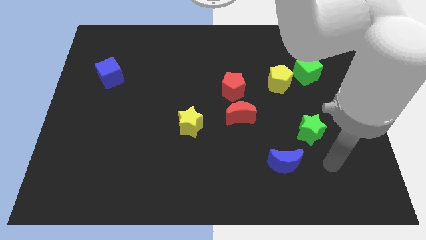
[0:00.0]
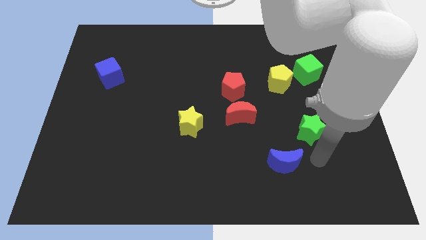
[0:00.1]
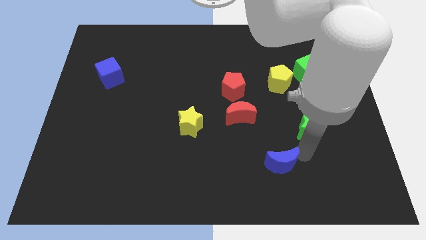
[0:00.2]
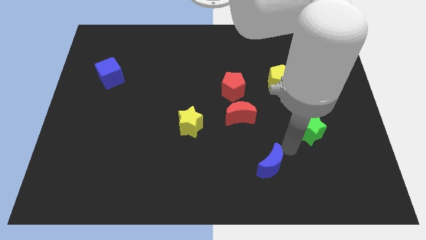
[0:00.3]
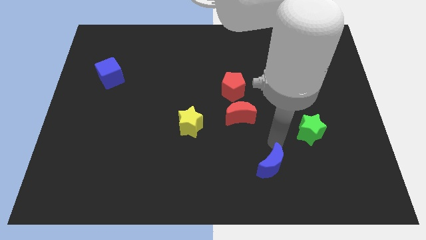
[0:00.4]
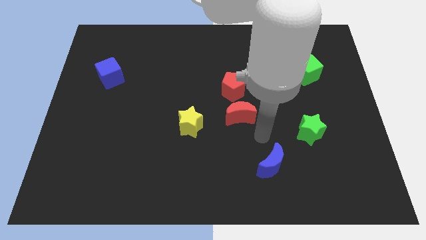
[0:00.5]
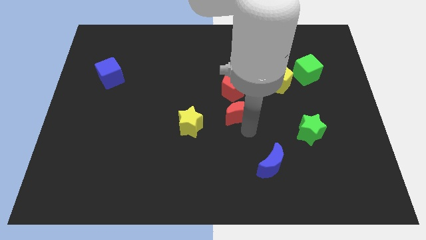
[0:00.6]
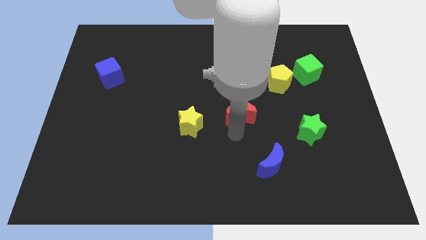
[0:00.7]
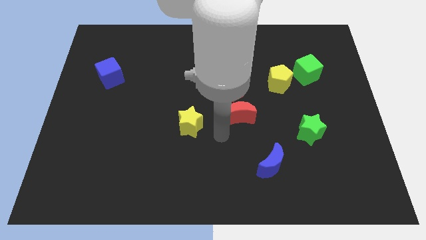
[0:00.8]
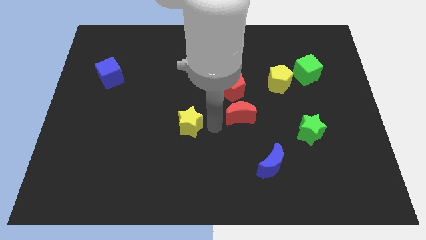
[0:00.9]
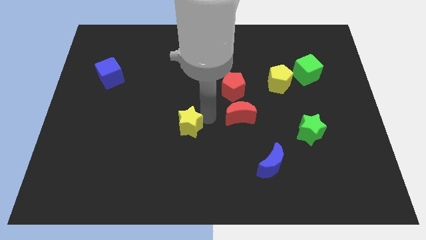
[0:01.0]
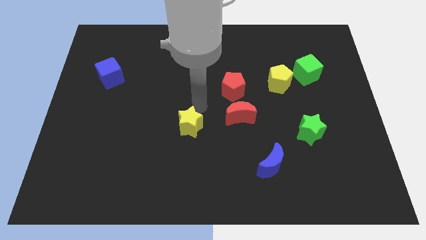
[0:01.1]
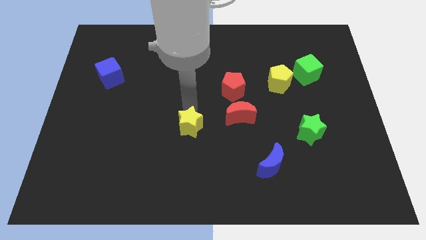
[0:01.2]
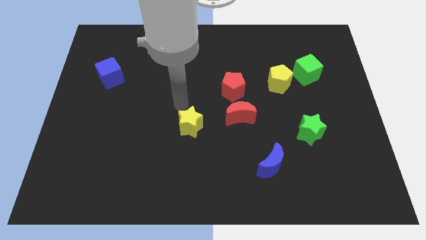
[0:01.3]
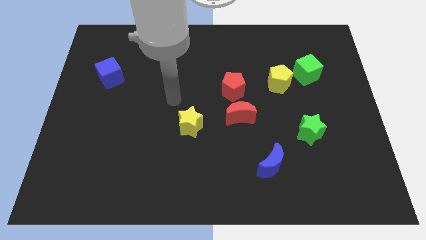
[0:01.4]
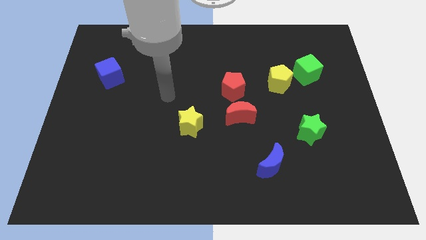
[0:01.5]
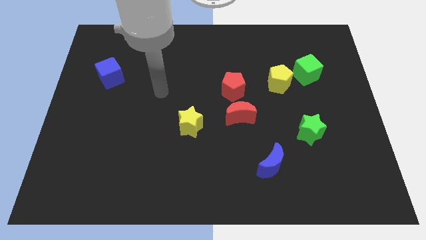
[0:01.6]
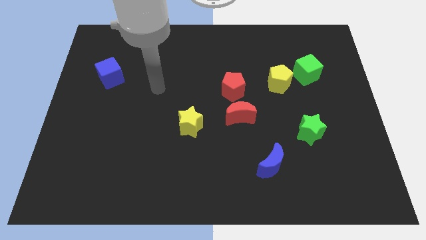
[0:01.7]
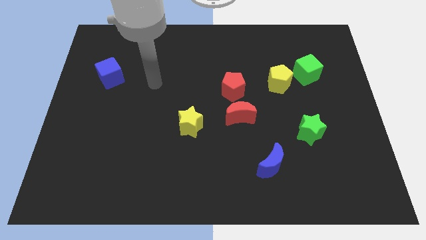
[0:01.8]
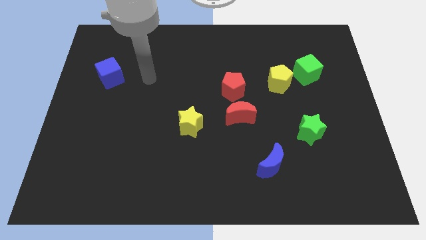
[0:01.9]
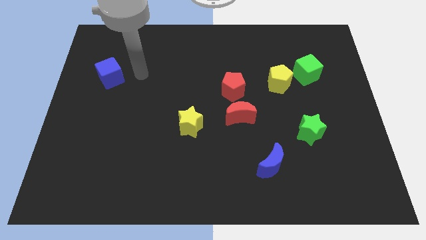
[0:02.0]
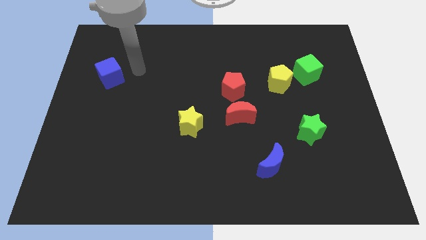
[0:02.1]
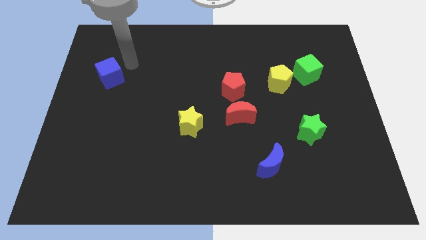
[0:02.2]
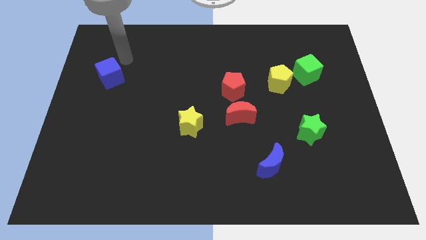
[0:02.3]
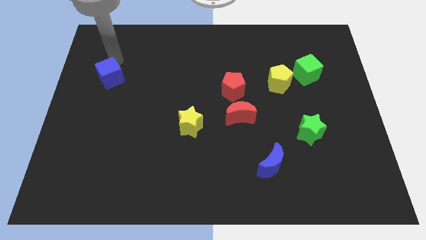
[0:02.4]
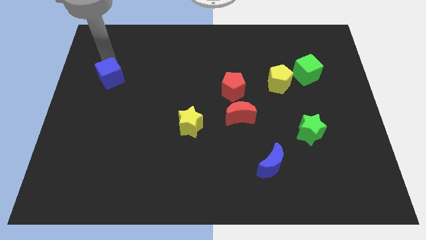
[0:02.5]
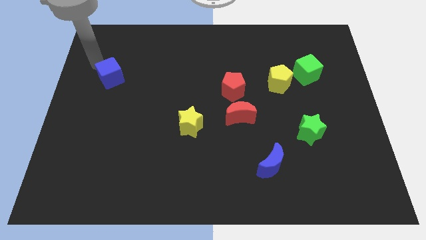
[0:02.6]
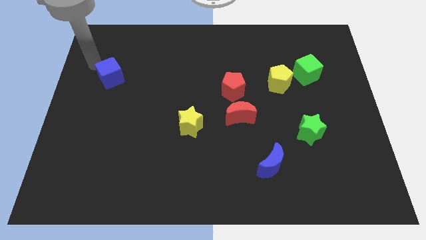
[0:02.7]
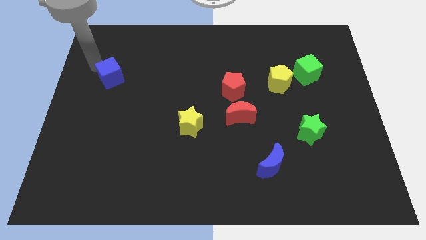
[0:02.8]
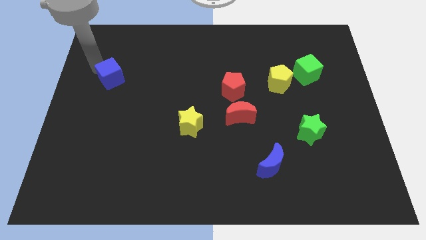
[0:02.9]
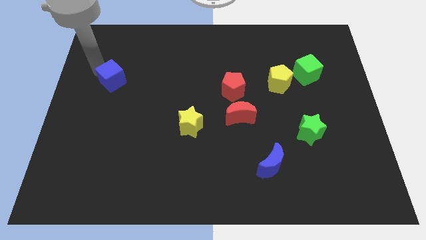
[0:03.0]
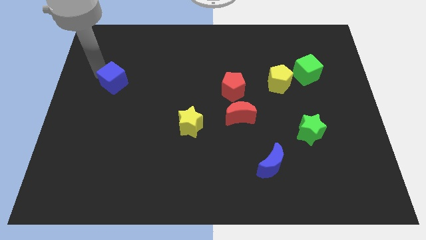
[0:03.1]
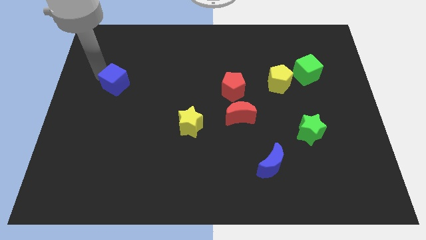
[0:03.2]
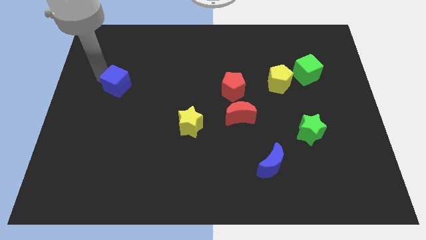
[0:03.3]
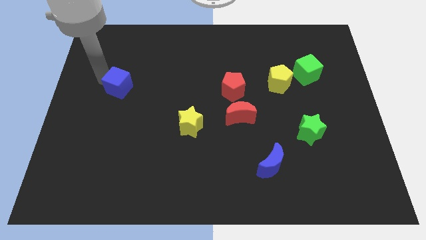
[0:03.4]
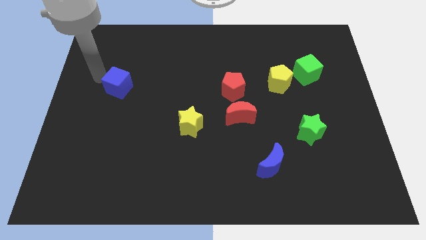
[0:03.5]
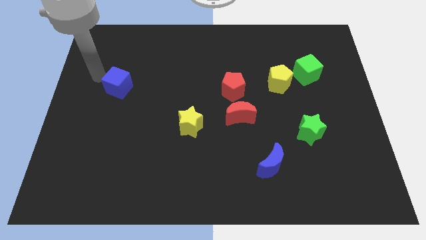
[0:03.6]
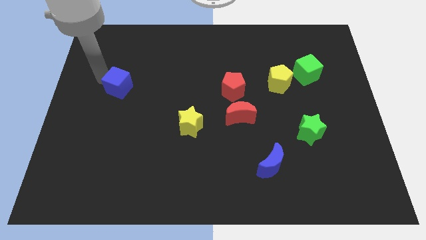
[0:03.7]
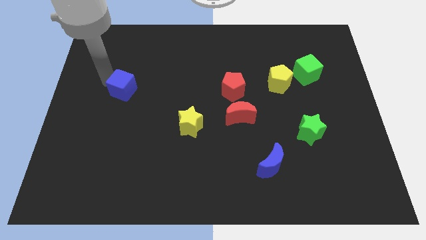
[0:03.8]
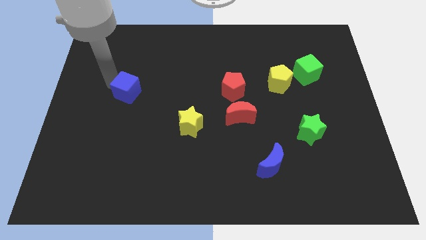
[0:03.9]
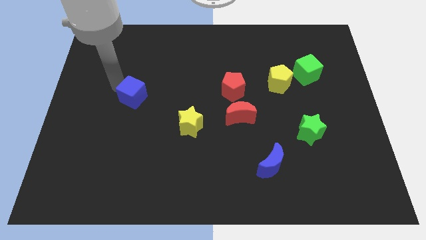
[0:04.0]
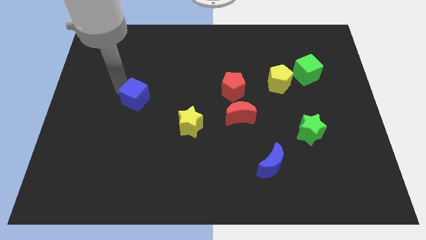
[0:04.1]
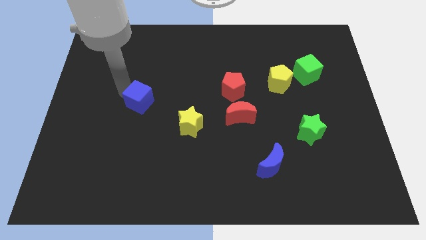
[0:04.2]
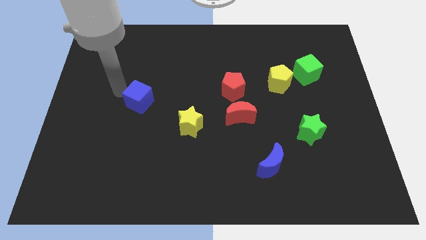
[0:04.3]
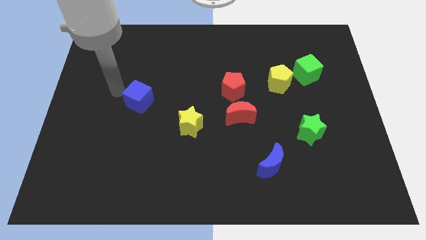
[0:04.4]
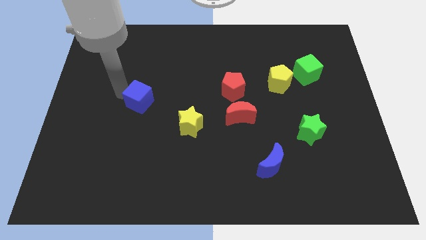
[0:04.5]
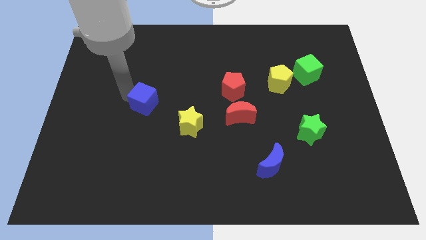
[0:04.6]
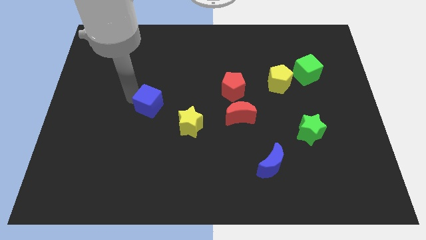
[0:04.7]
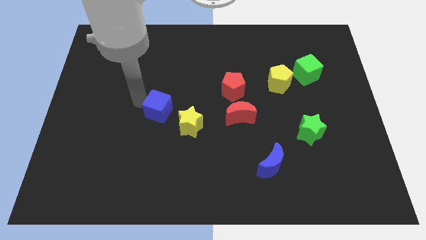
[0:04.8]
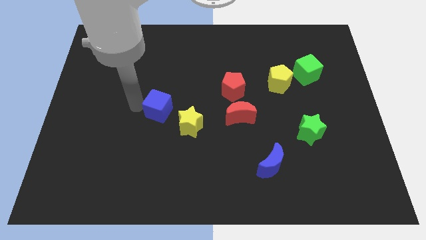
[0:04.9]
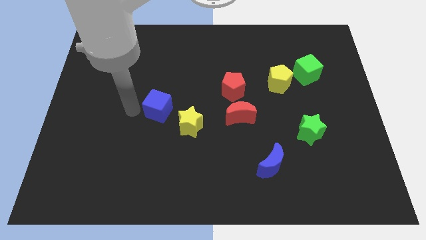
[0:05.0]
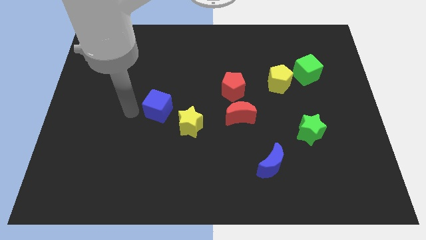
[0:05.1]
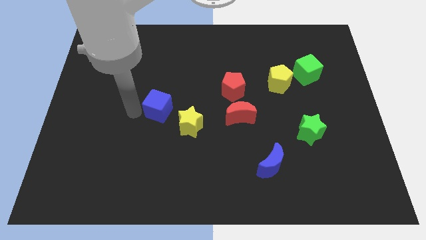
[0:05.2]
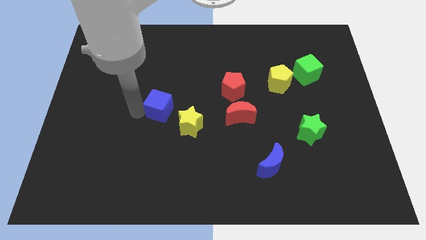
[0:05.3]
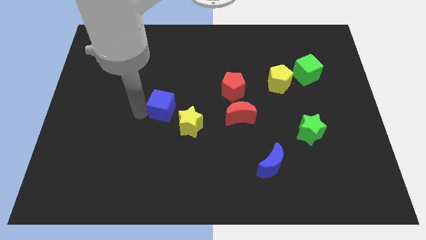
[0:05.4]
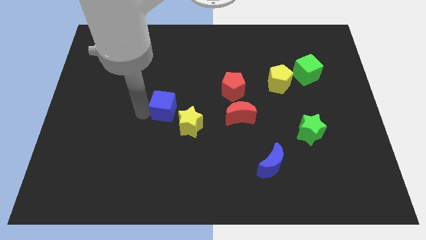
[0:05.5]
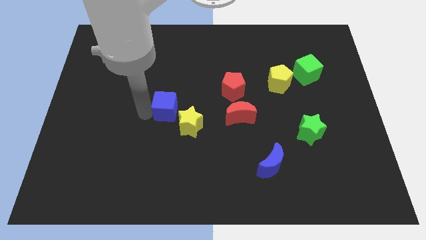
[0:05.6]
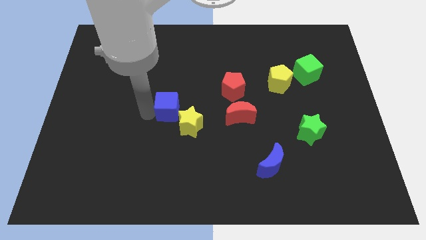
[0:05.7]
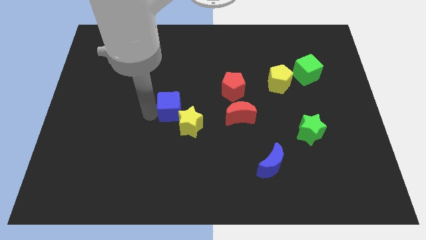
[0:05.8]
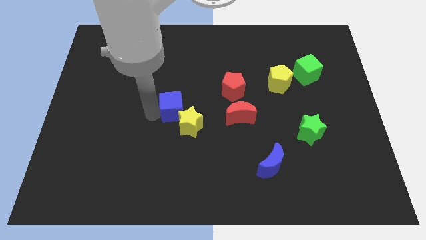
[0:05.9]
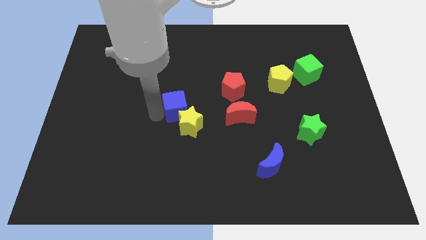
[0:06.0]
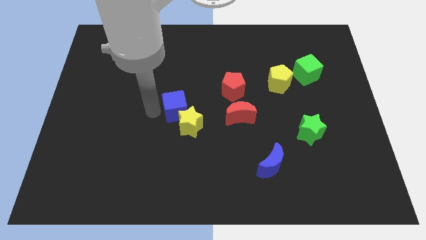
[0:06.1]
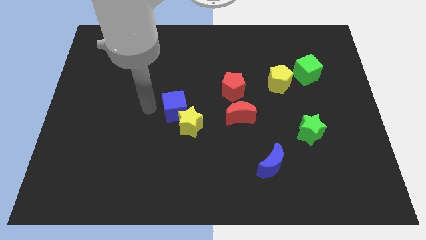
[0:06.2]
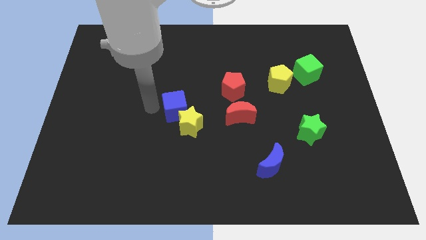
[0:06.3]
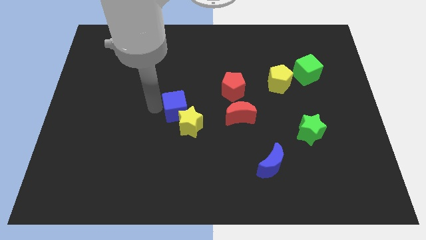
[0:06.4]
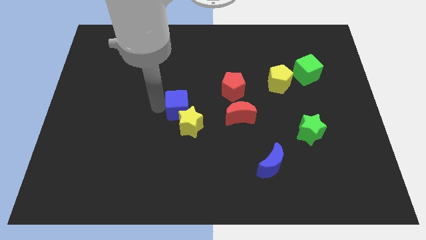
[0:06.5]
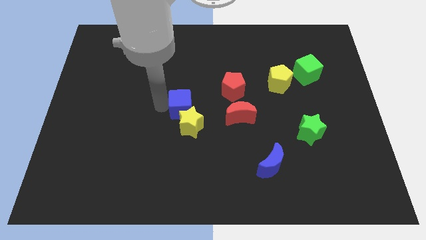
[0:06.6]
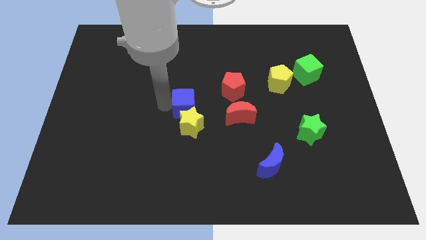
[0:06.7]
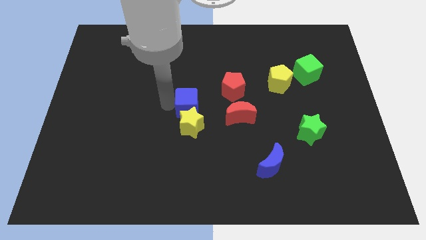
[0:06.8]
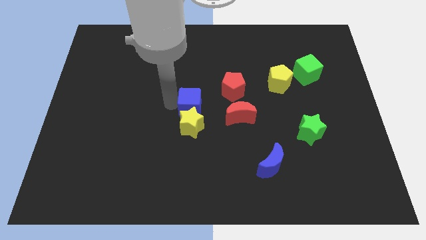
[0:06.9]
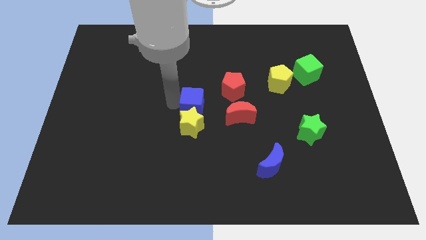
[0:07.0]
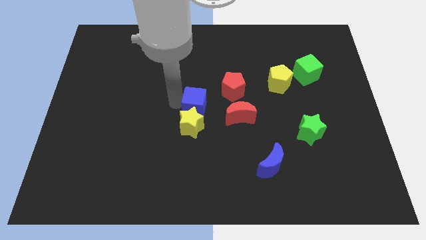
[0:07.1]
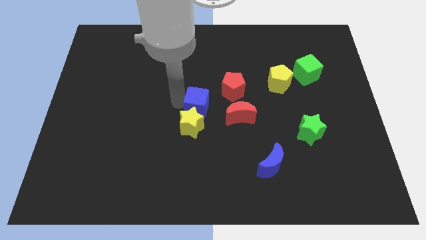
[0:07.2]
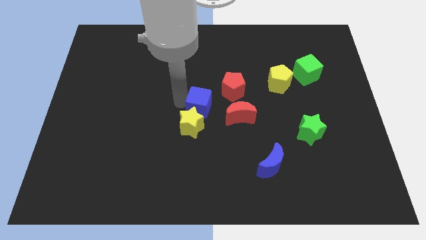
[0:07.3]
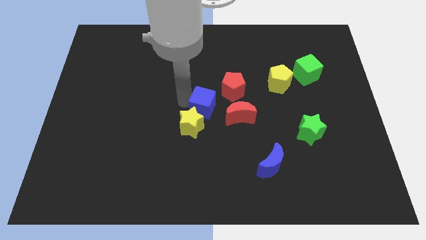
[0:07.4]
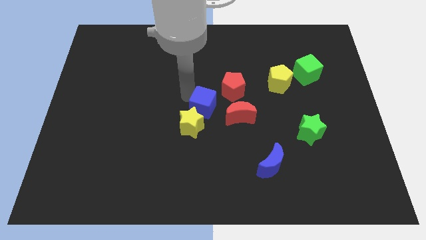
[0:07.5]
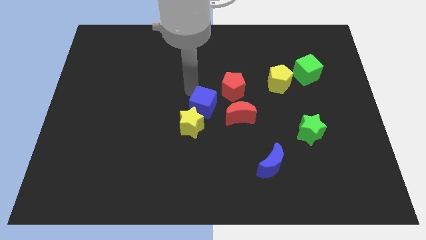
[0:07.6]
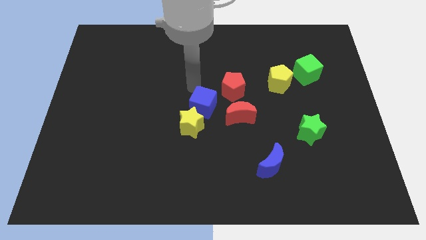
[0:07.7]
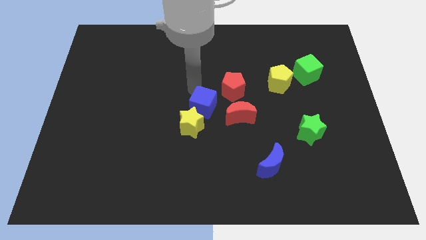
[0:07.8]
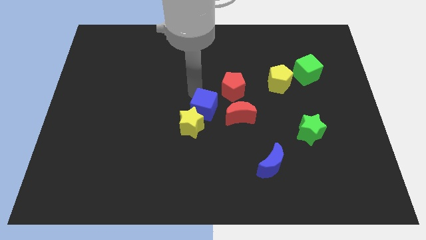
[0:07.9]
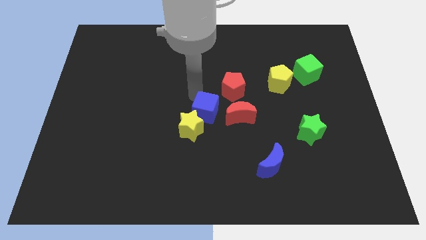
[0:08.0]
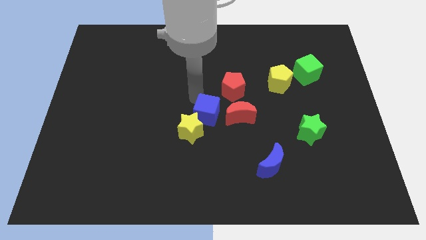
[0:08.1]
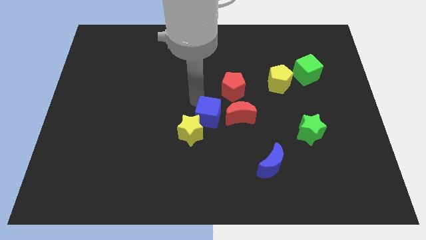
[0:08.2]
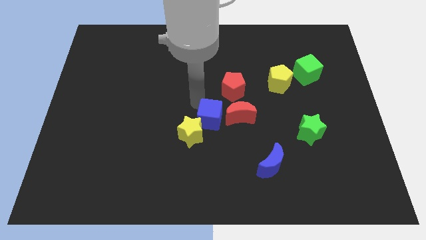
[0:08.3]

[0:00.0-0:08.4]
move the blue cube diagonally down and to the left of the red moon
